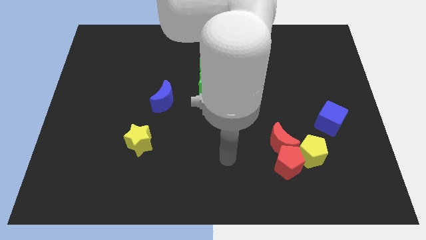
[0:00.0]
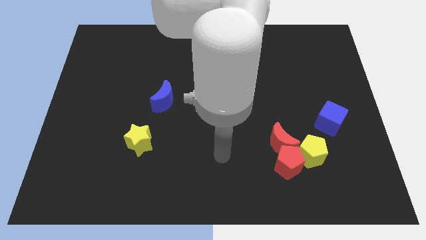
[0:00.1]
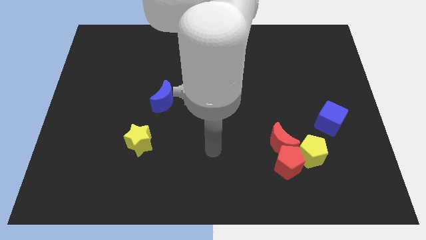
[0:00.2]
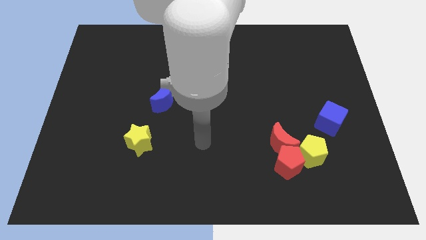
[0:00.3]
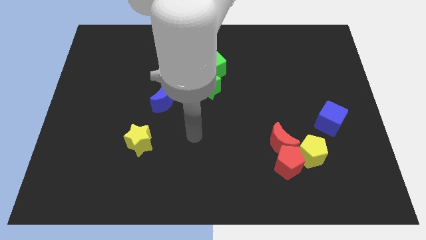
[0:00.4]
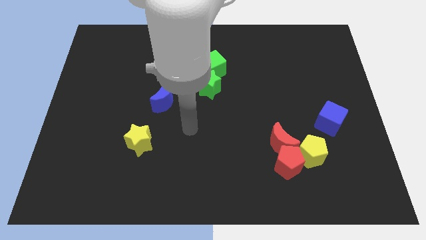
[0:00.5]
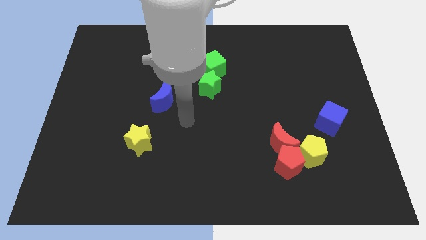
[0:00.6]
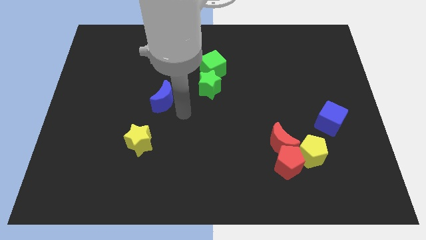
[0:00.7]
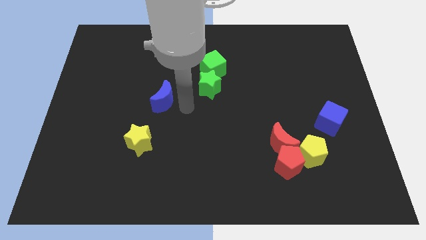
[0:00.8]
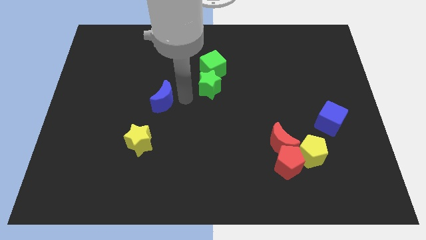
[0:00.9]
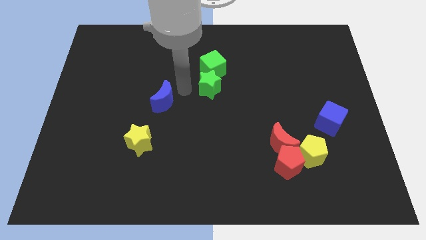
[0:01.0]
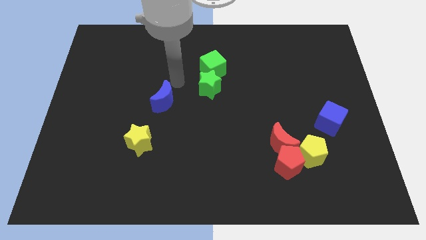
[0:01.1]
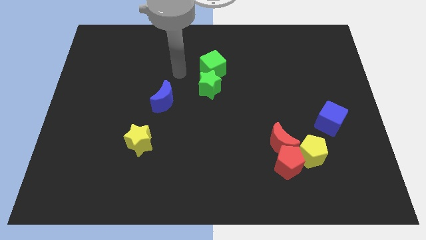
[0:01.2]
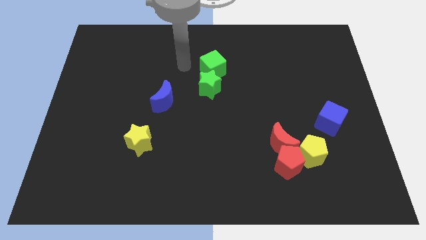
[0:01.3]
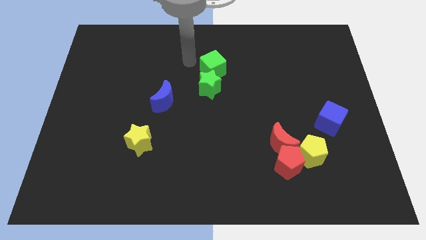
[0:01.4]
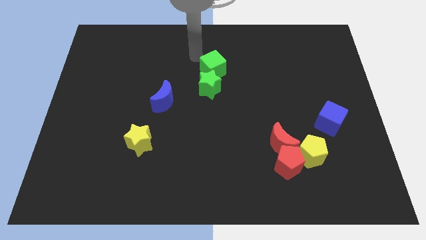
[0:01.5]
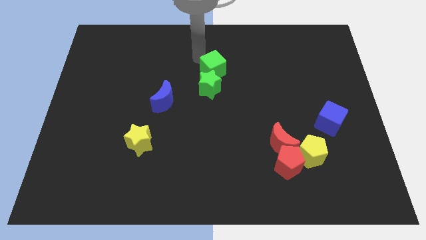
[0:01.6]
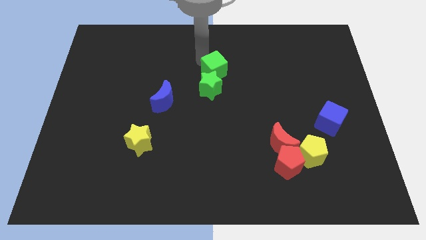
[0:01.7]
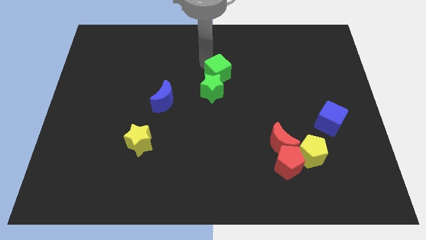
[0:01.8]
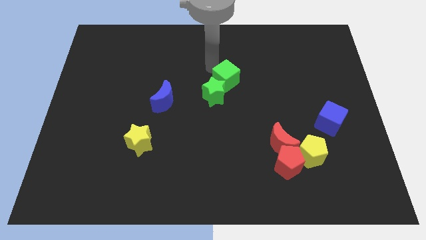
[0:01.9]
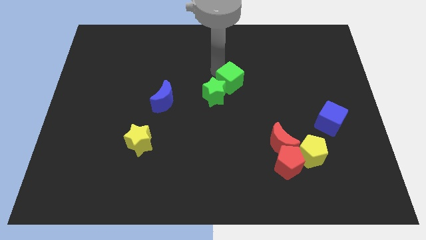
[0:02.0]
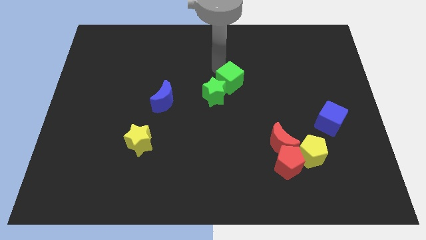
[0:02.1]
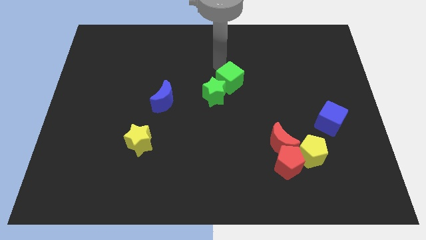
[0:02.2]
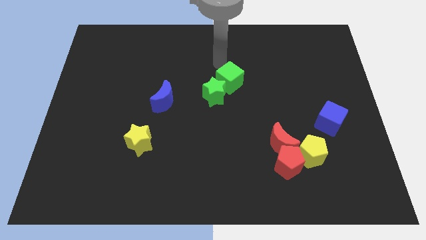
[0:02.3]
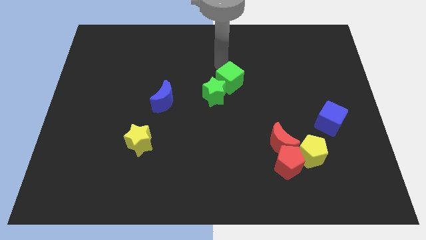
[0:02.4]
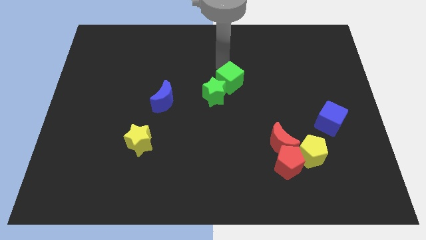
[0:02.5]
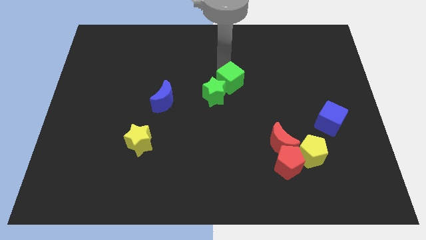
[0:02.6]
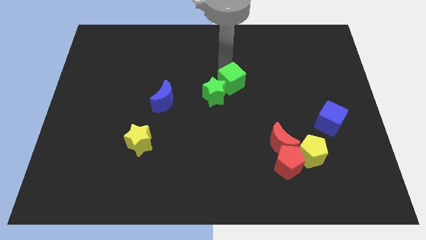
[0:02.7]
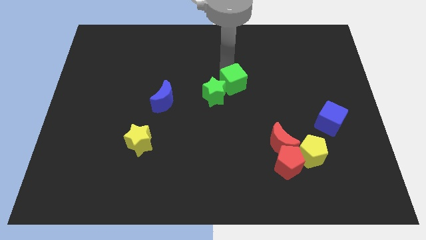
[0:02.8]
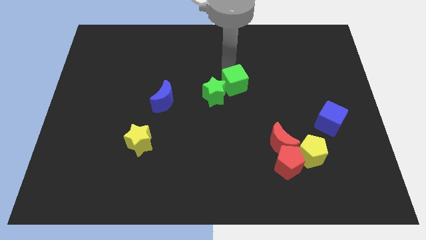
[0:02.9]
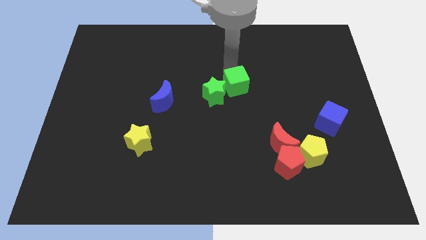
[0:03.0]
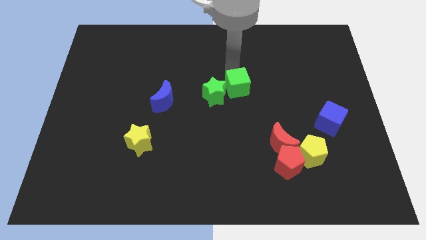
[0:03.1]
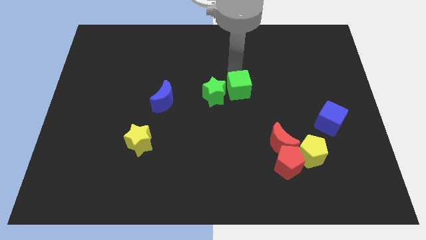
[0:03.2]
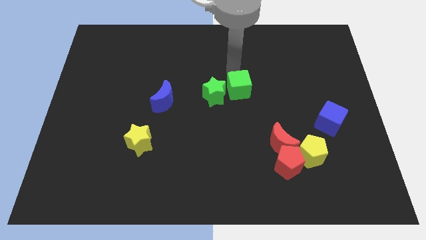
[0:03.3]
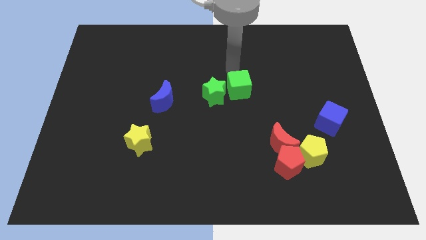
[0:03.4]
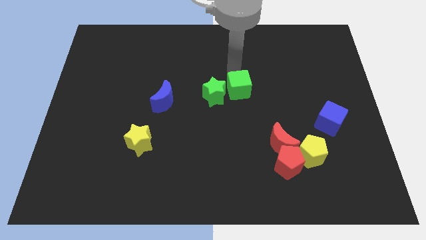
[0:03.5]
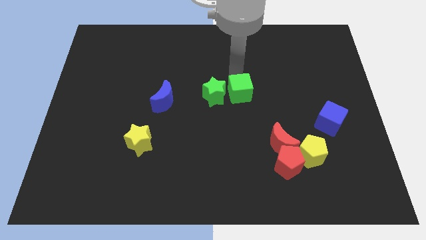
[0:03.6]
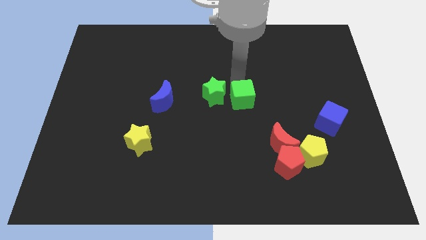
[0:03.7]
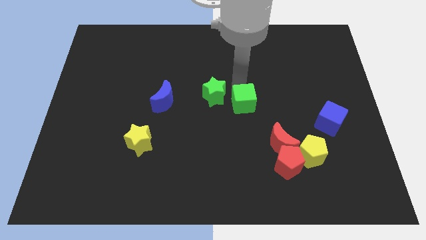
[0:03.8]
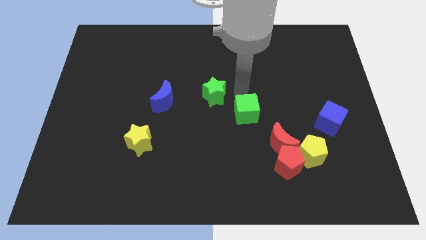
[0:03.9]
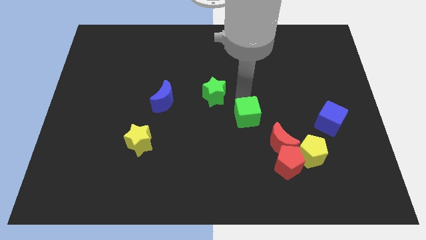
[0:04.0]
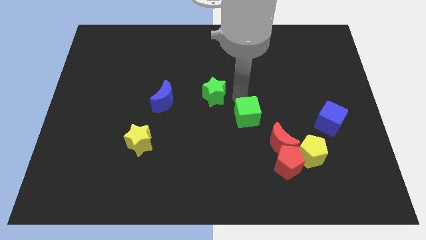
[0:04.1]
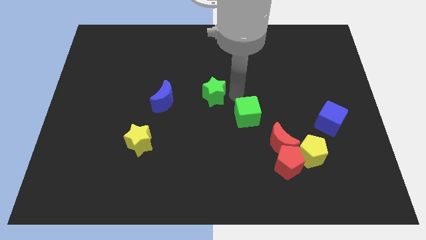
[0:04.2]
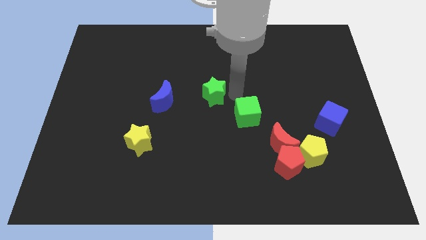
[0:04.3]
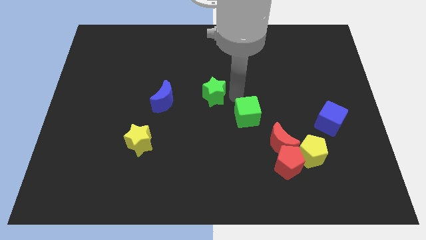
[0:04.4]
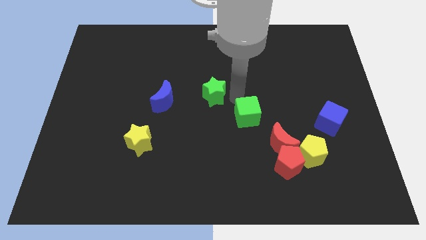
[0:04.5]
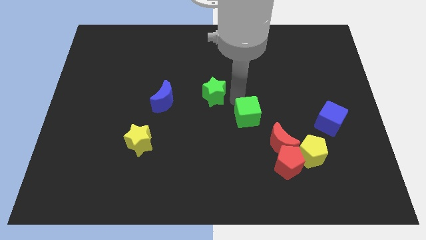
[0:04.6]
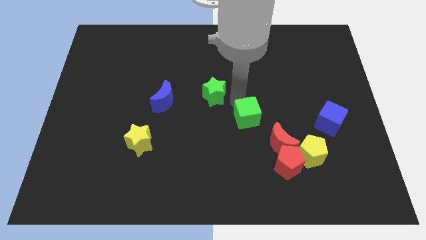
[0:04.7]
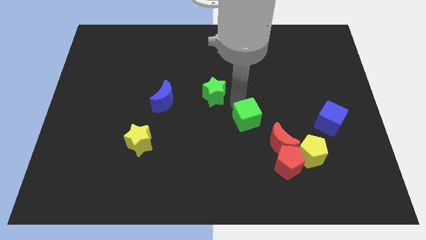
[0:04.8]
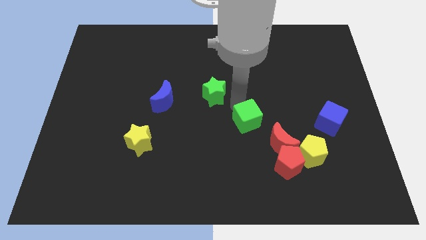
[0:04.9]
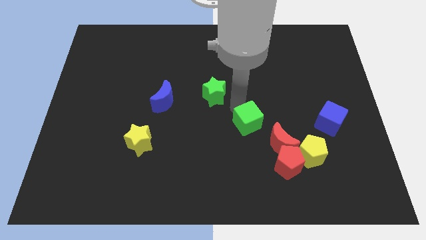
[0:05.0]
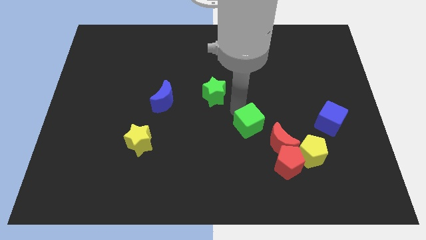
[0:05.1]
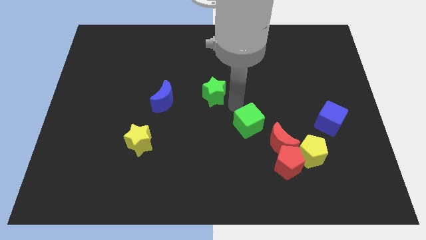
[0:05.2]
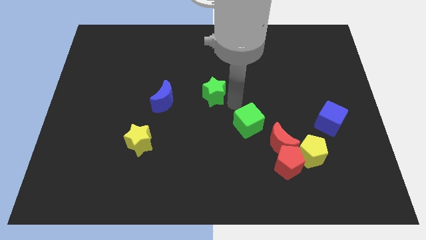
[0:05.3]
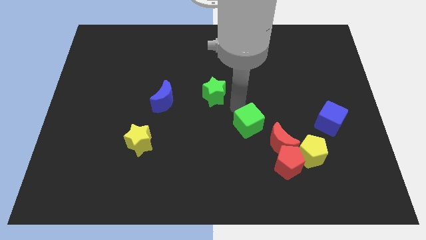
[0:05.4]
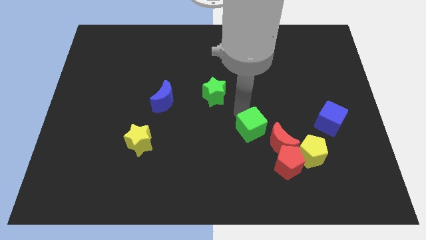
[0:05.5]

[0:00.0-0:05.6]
slide the green cube to the top left of the red pentagon

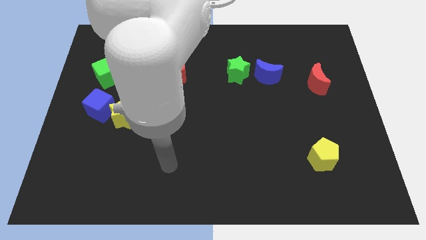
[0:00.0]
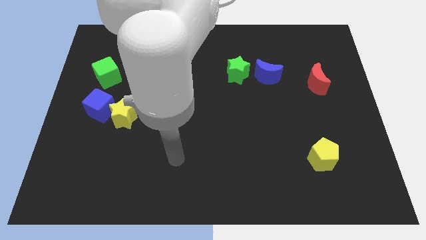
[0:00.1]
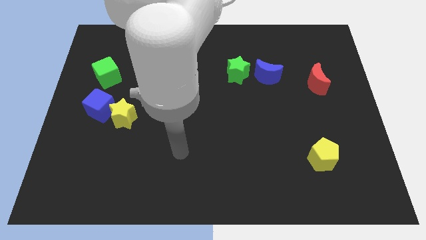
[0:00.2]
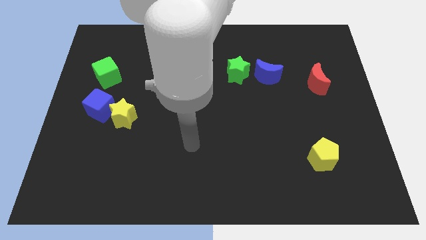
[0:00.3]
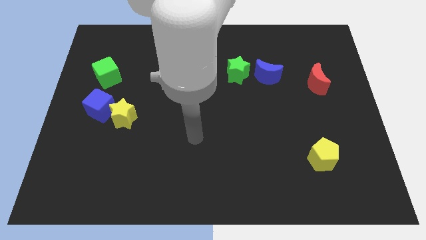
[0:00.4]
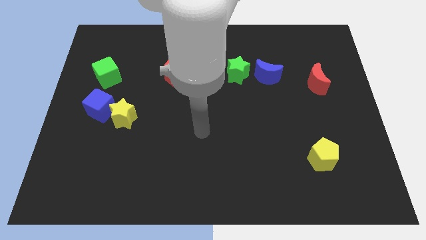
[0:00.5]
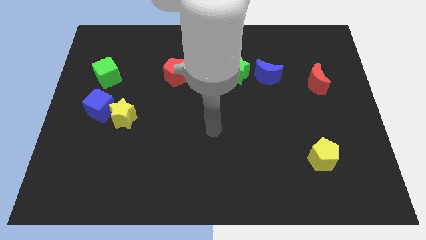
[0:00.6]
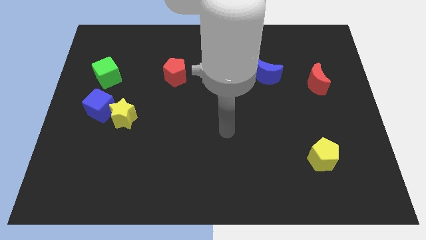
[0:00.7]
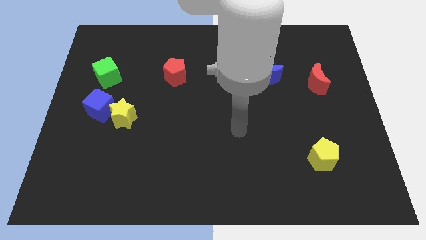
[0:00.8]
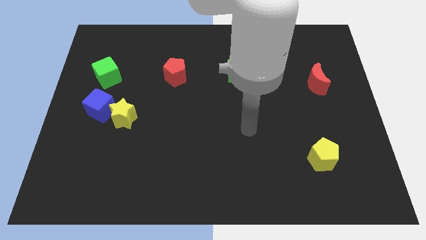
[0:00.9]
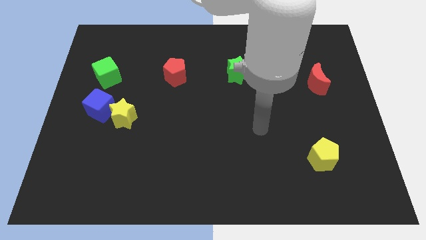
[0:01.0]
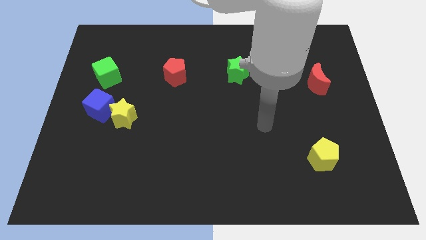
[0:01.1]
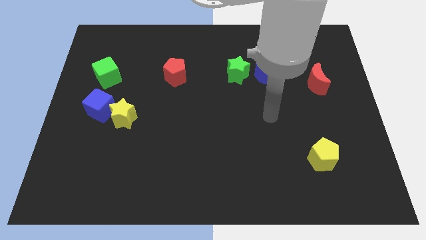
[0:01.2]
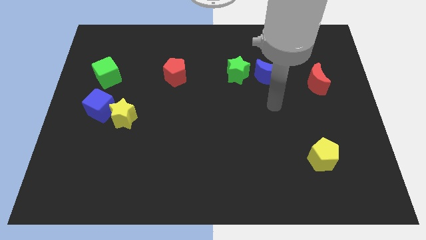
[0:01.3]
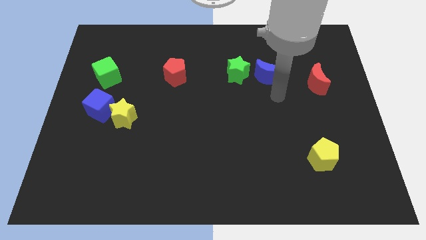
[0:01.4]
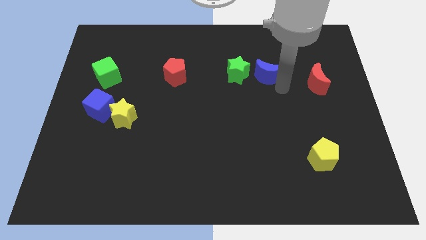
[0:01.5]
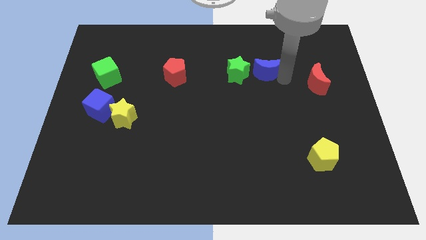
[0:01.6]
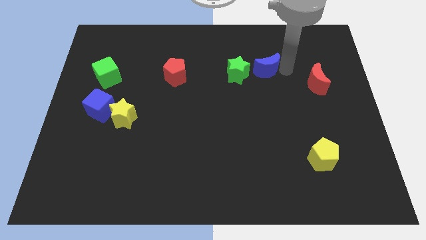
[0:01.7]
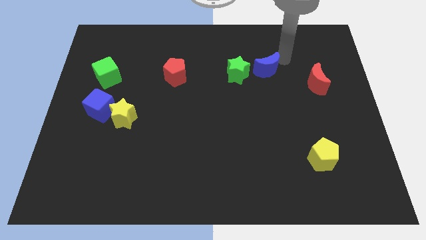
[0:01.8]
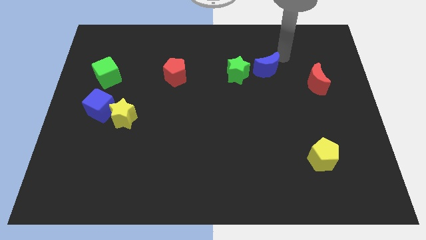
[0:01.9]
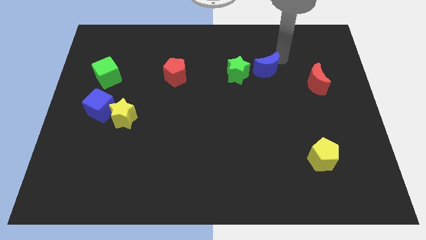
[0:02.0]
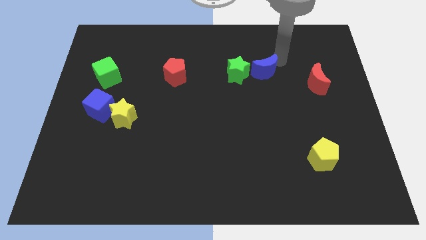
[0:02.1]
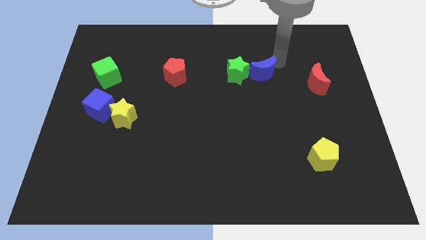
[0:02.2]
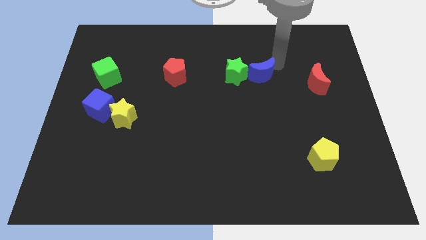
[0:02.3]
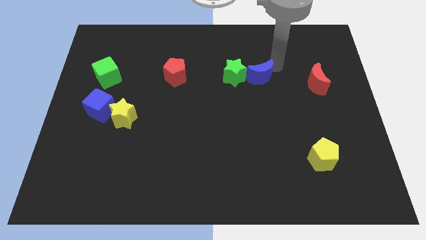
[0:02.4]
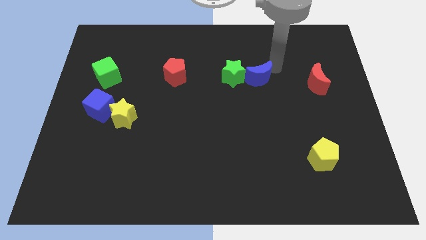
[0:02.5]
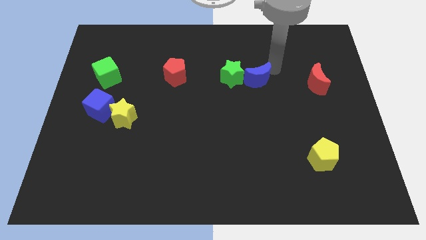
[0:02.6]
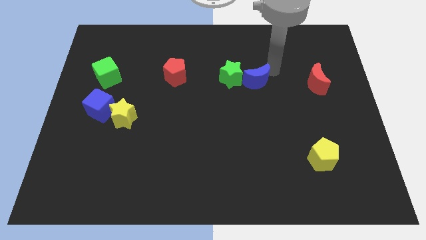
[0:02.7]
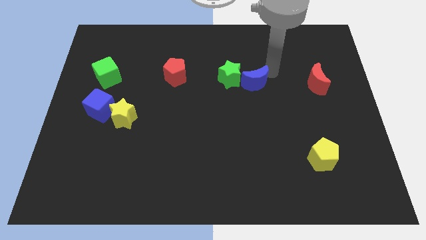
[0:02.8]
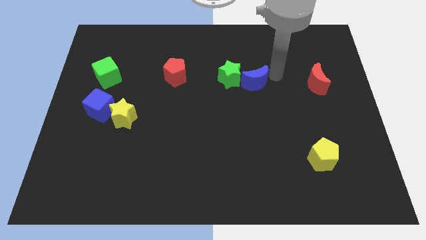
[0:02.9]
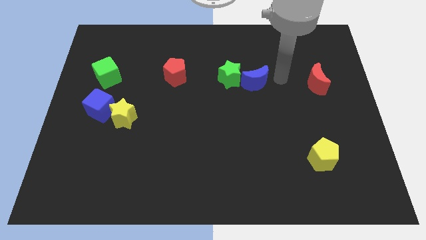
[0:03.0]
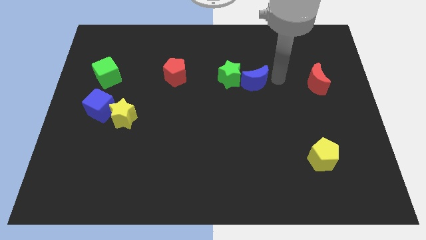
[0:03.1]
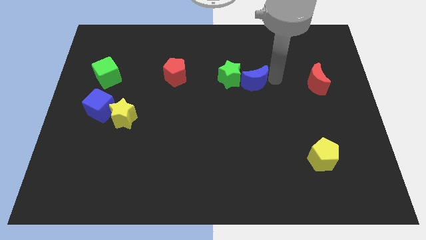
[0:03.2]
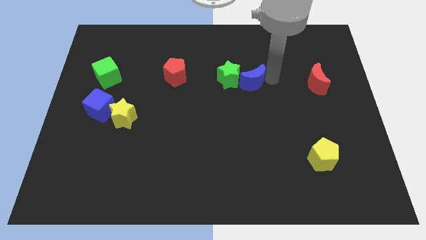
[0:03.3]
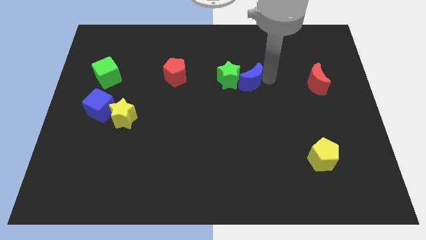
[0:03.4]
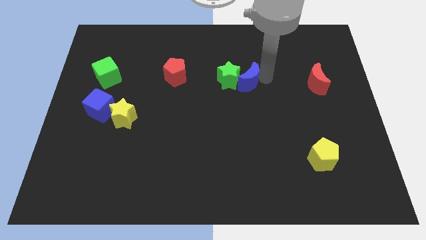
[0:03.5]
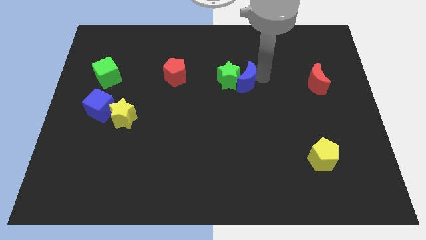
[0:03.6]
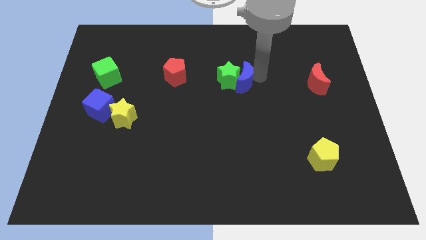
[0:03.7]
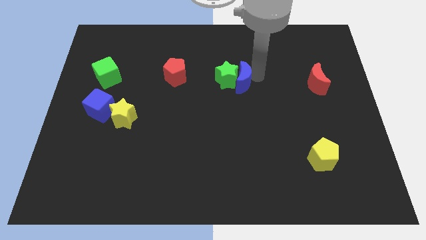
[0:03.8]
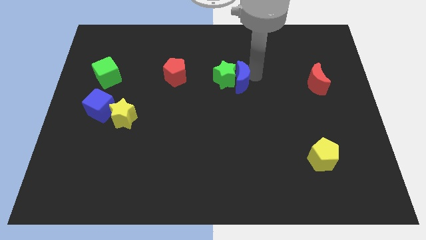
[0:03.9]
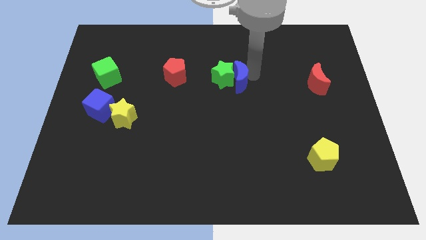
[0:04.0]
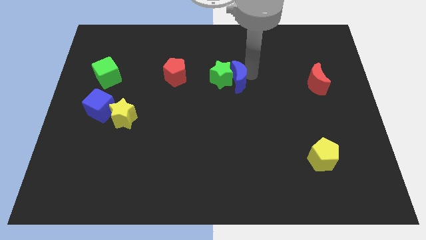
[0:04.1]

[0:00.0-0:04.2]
move the blue moon right of the red pentagon
